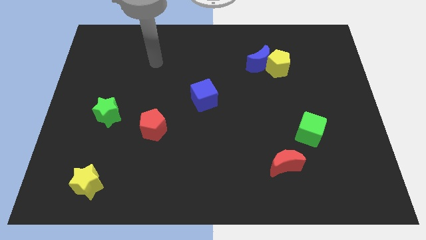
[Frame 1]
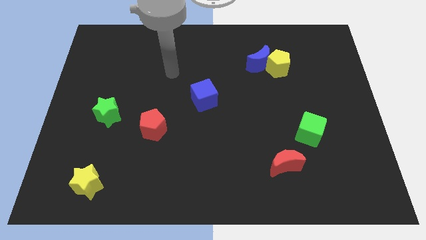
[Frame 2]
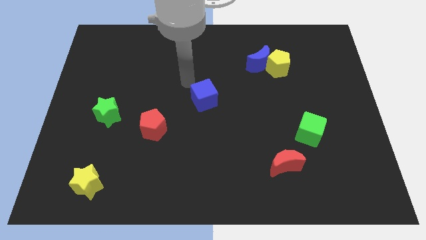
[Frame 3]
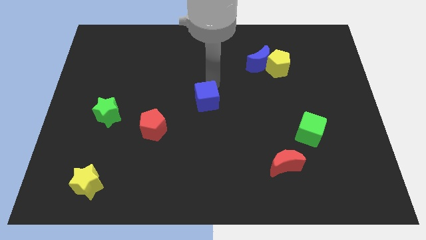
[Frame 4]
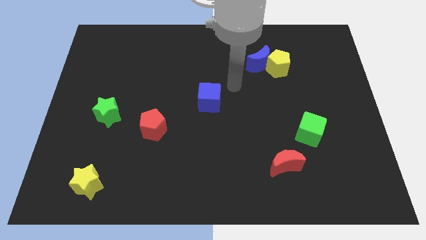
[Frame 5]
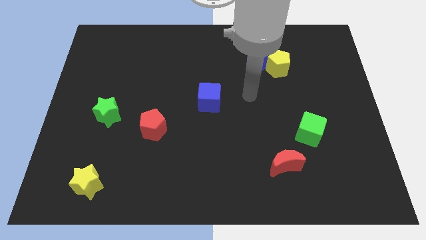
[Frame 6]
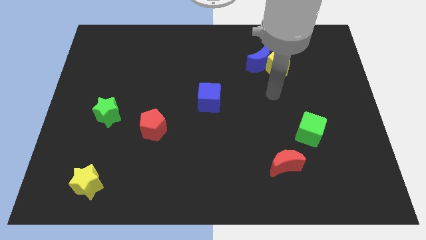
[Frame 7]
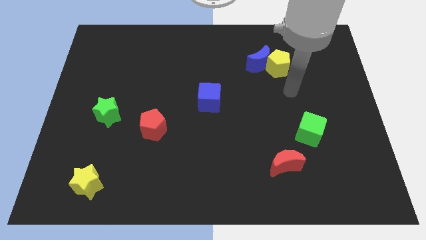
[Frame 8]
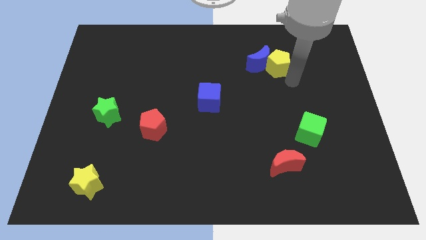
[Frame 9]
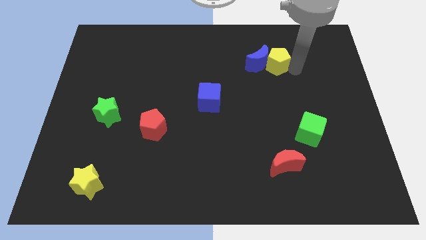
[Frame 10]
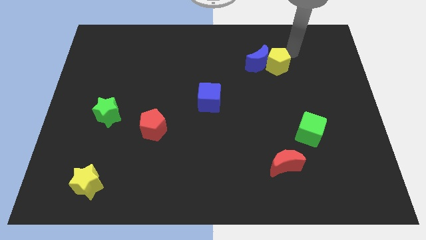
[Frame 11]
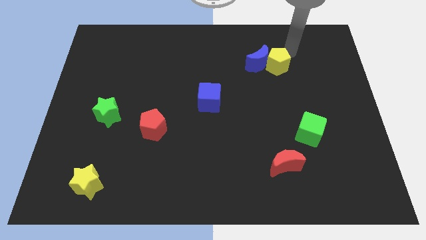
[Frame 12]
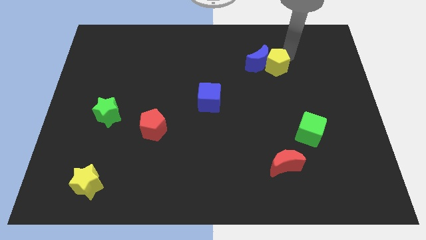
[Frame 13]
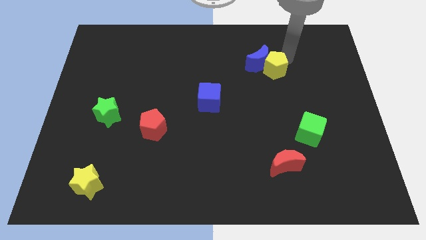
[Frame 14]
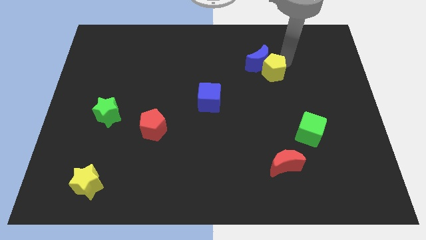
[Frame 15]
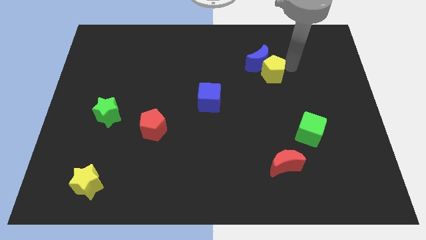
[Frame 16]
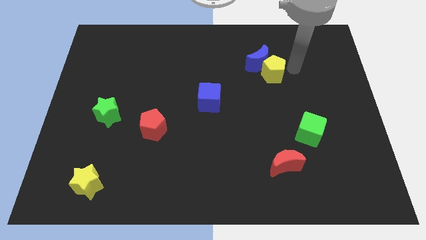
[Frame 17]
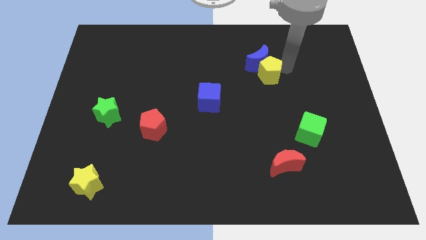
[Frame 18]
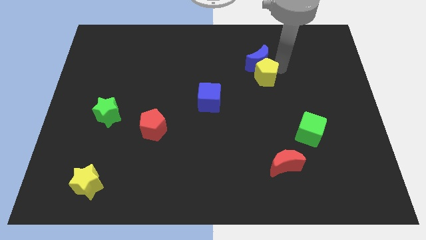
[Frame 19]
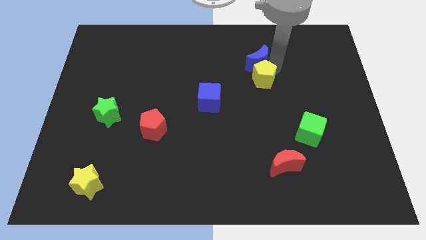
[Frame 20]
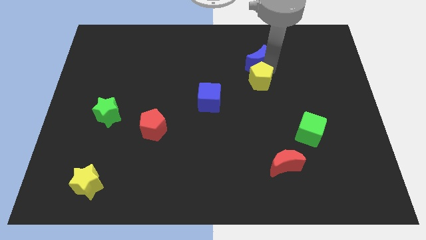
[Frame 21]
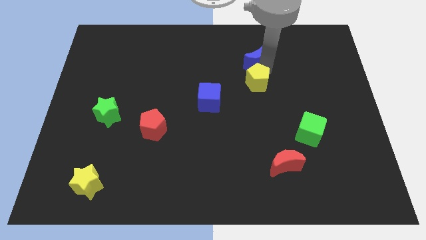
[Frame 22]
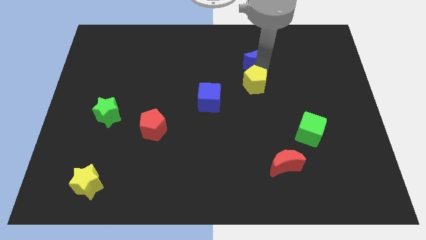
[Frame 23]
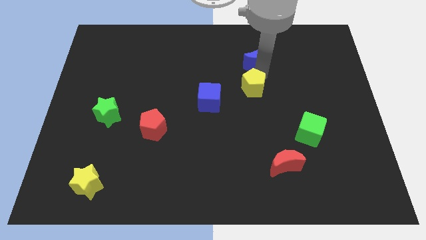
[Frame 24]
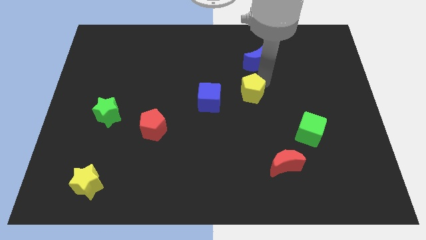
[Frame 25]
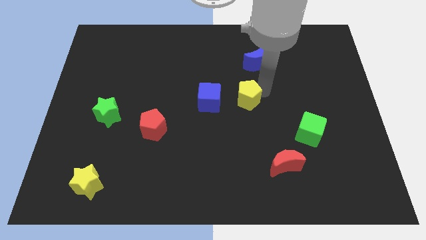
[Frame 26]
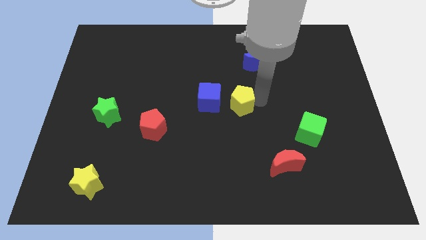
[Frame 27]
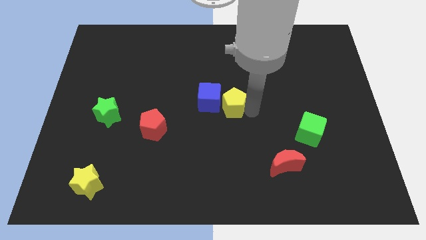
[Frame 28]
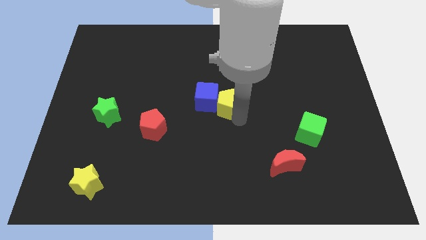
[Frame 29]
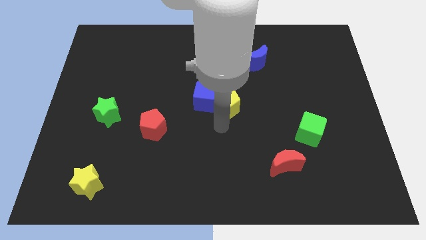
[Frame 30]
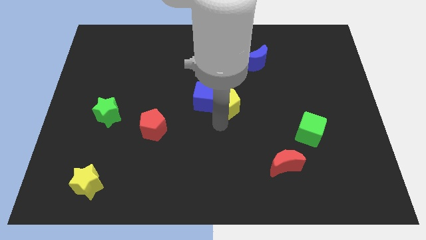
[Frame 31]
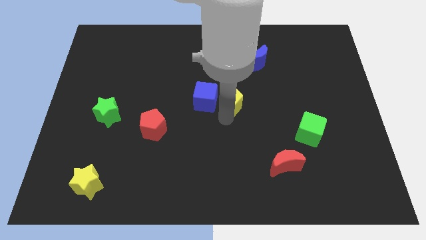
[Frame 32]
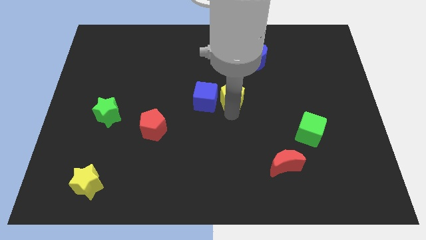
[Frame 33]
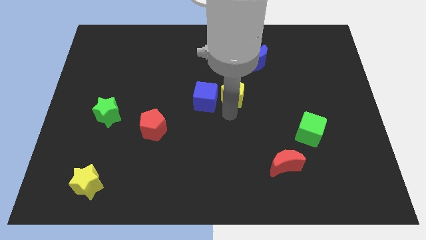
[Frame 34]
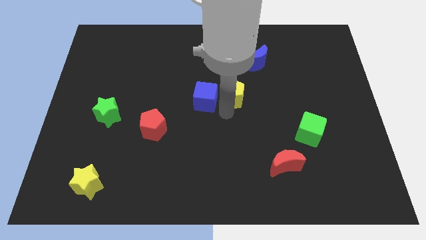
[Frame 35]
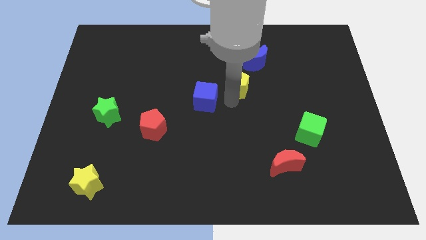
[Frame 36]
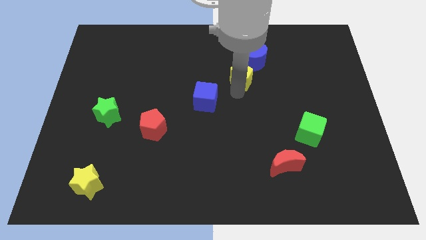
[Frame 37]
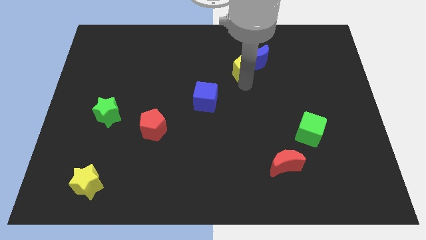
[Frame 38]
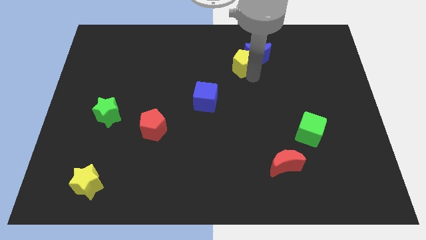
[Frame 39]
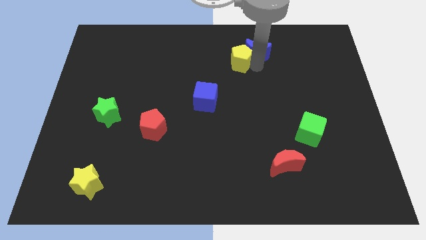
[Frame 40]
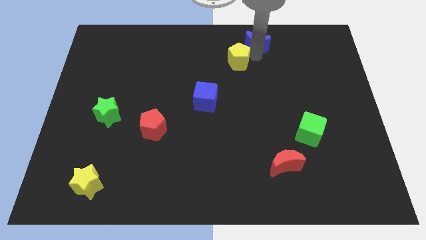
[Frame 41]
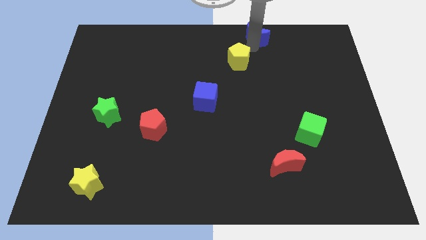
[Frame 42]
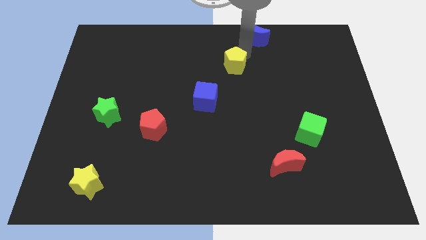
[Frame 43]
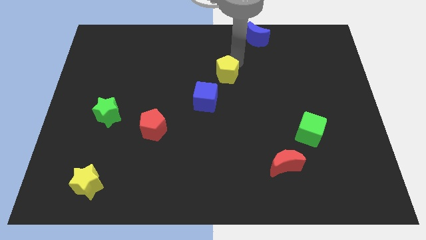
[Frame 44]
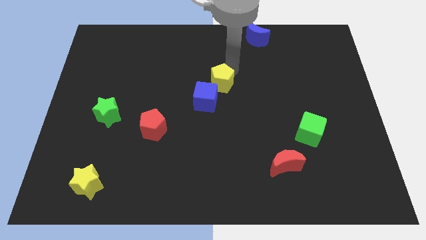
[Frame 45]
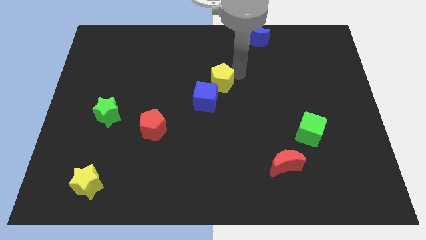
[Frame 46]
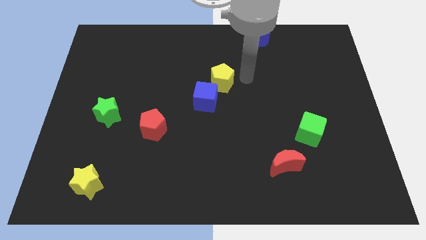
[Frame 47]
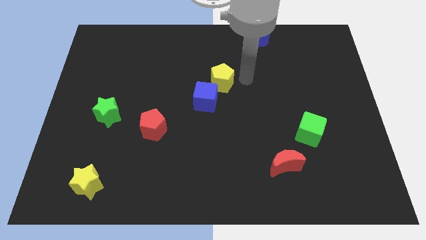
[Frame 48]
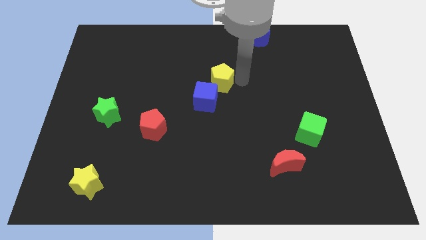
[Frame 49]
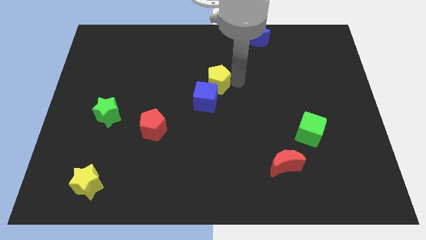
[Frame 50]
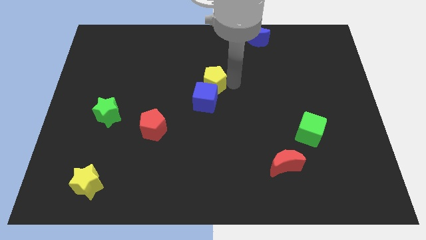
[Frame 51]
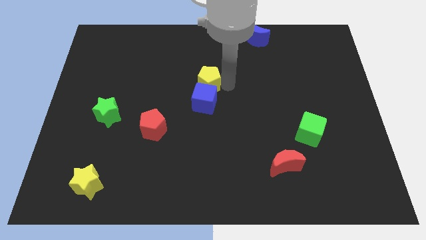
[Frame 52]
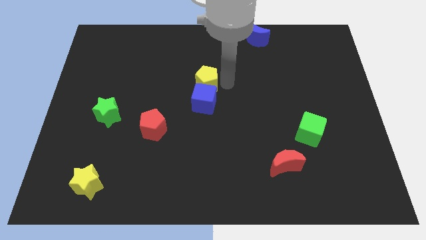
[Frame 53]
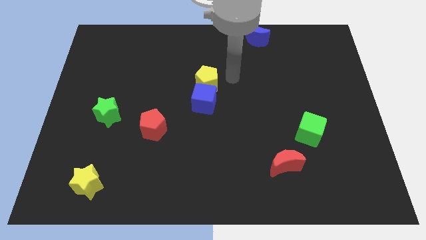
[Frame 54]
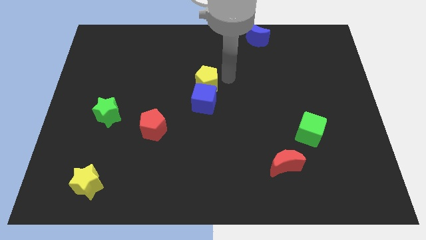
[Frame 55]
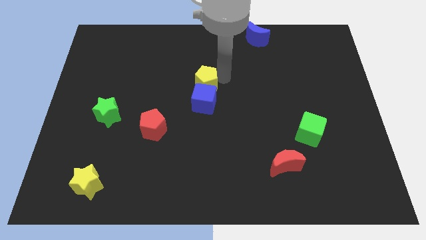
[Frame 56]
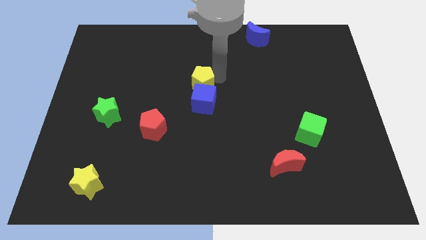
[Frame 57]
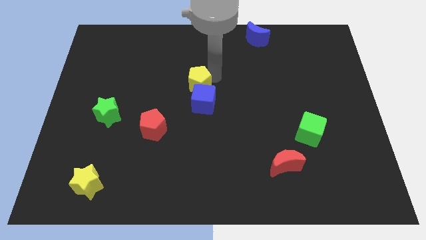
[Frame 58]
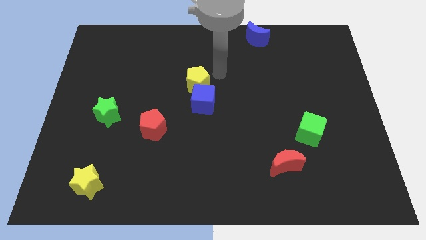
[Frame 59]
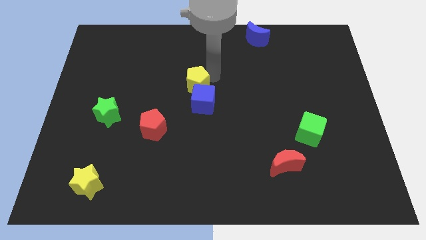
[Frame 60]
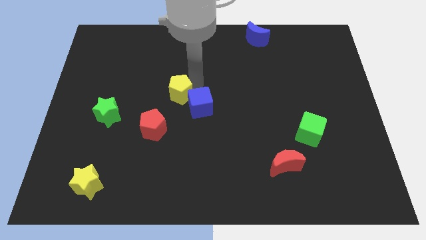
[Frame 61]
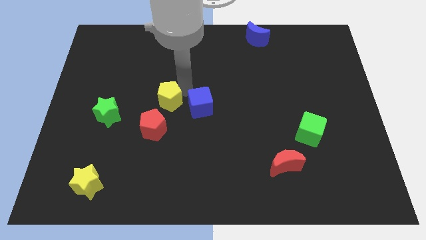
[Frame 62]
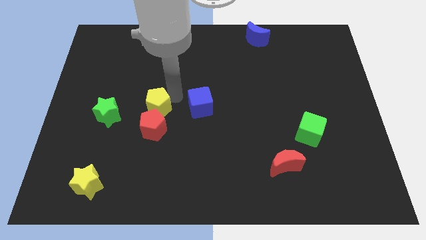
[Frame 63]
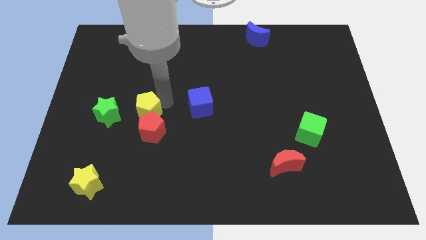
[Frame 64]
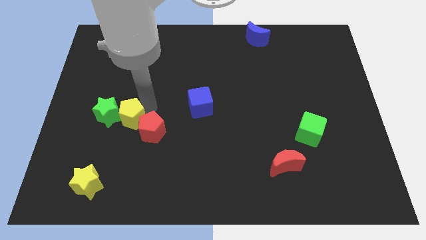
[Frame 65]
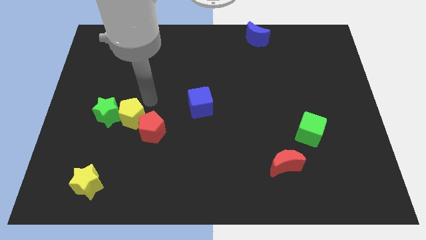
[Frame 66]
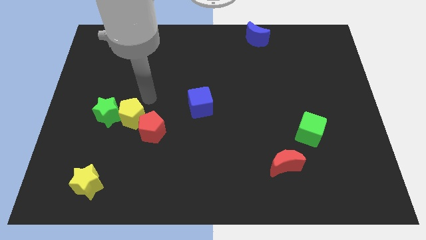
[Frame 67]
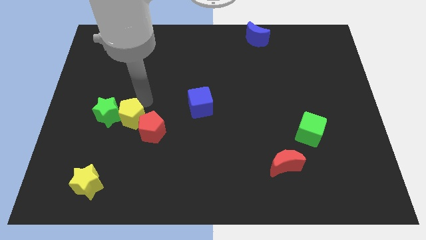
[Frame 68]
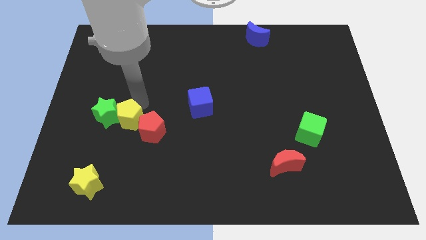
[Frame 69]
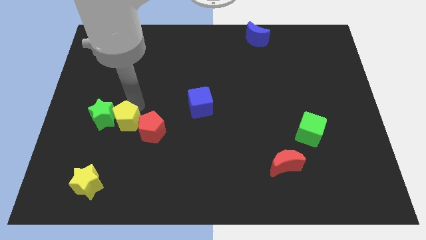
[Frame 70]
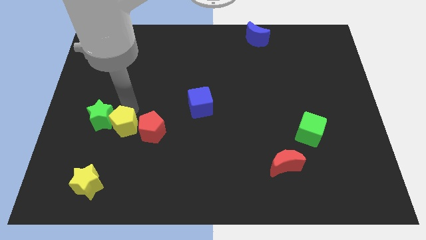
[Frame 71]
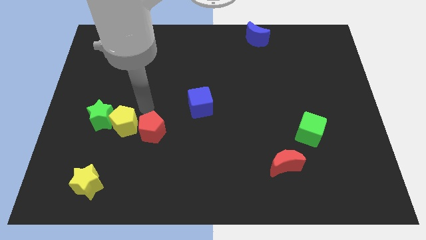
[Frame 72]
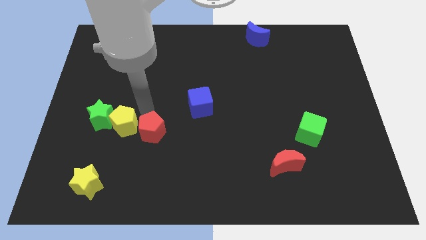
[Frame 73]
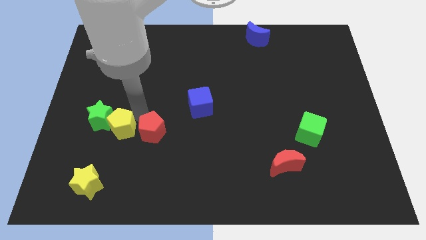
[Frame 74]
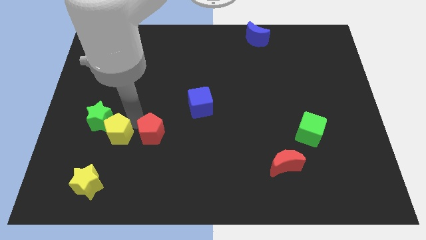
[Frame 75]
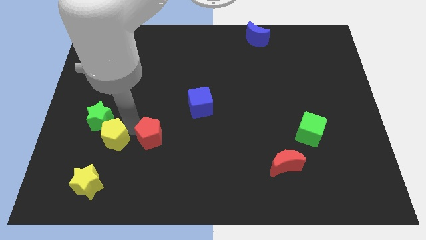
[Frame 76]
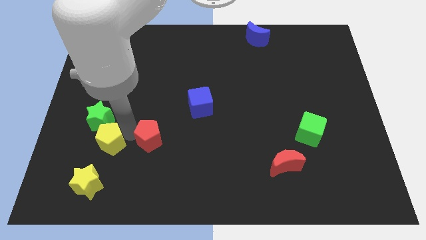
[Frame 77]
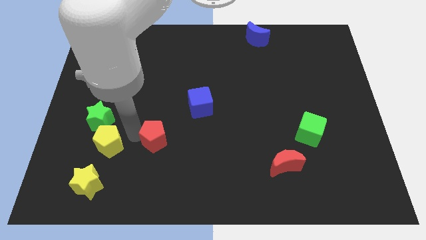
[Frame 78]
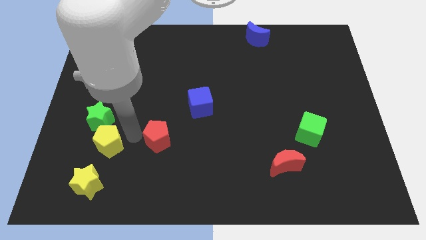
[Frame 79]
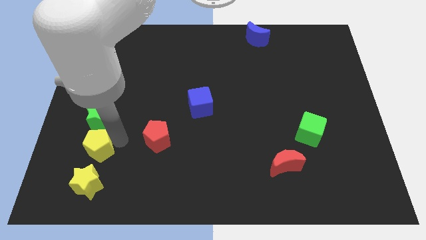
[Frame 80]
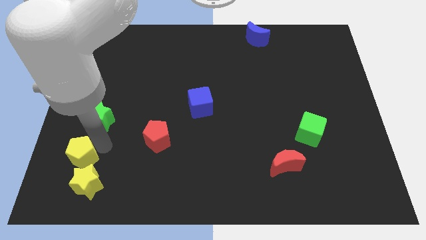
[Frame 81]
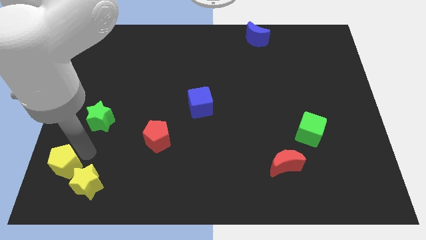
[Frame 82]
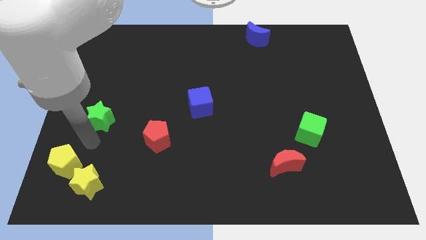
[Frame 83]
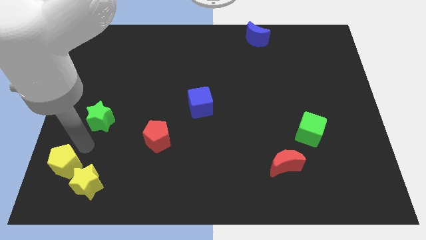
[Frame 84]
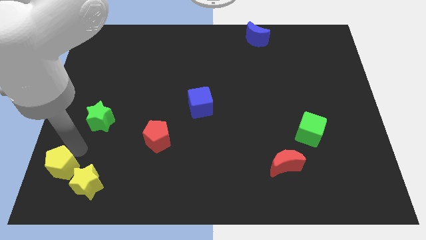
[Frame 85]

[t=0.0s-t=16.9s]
put the yellow pentagon to the bottom left of the board
